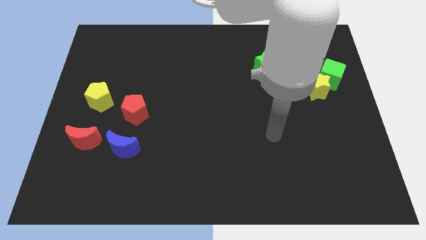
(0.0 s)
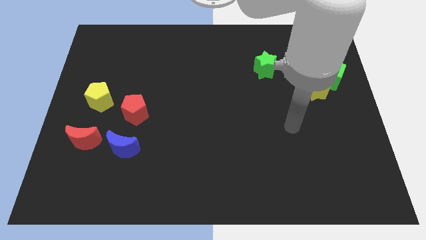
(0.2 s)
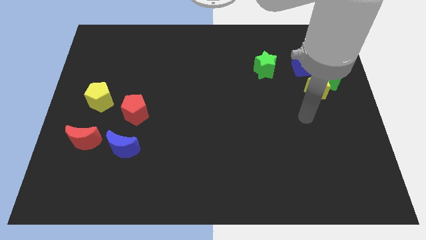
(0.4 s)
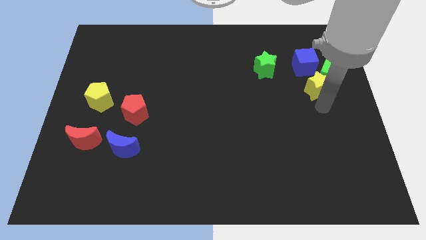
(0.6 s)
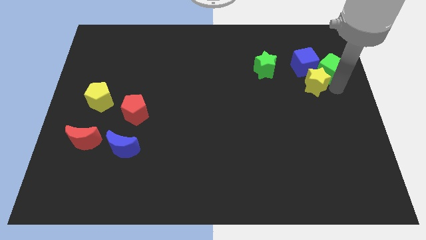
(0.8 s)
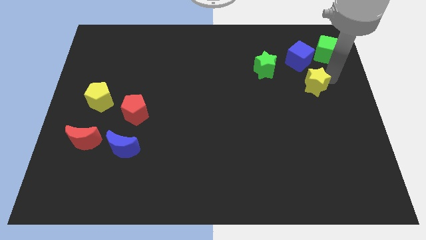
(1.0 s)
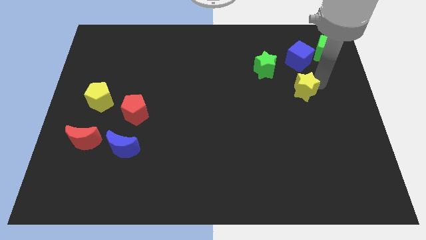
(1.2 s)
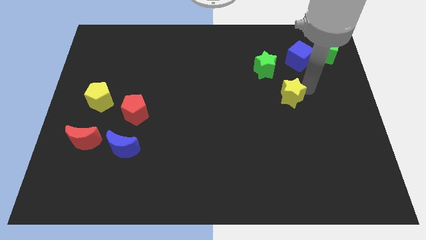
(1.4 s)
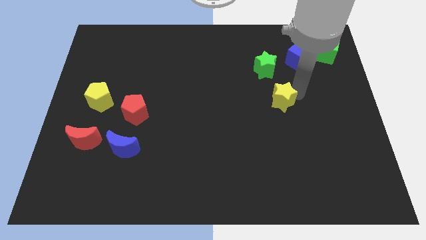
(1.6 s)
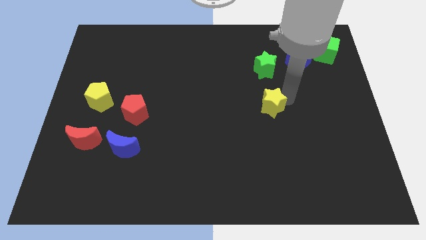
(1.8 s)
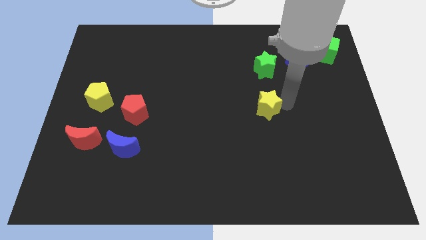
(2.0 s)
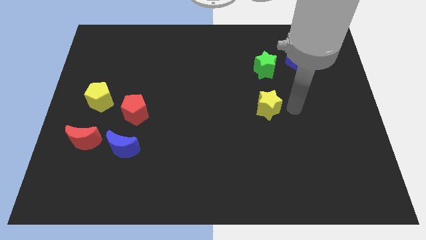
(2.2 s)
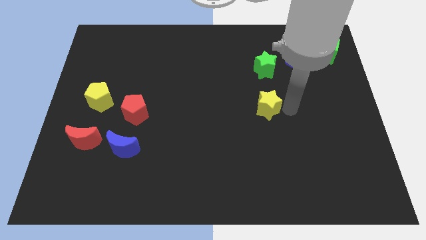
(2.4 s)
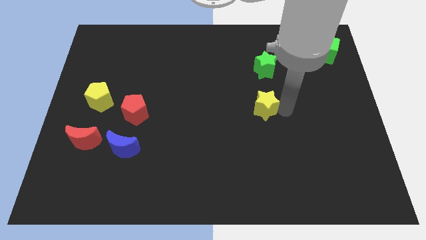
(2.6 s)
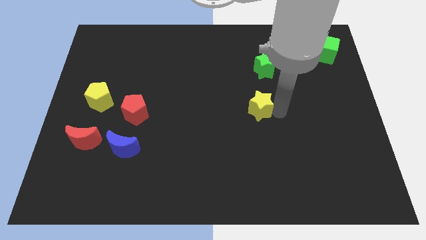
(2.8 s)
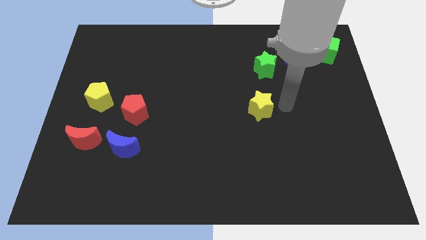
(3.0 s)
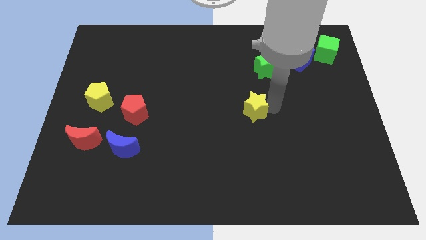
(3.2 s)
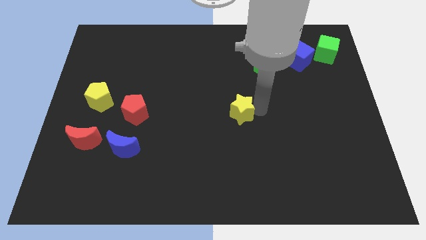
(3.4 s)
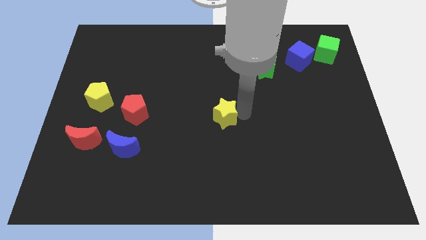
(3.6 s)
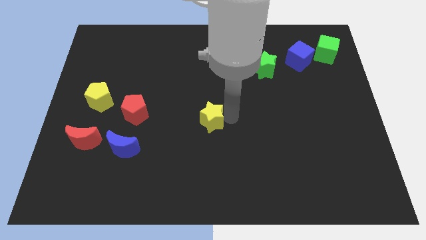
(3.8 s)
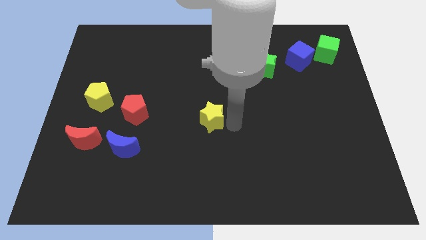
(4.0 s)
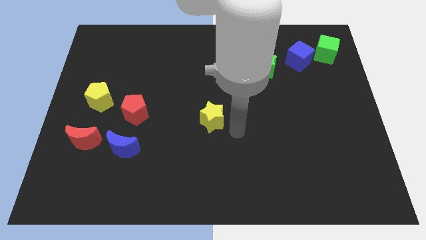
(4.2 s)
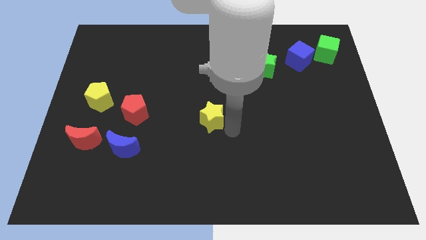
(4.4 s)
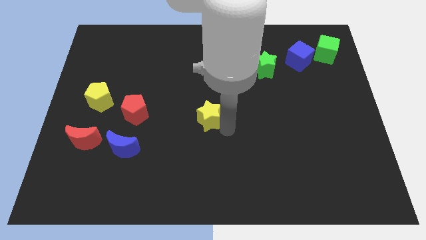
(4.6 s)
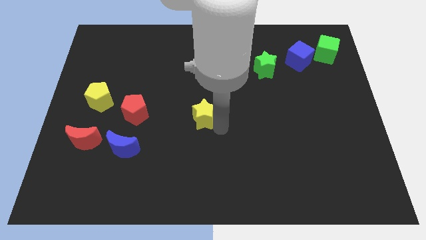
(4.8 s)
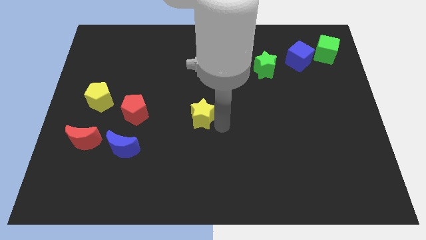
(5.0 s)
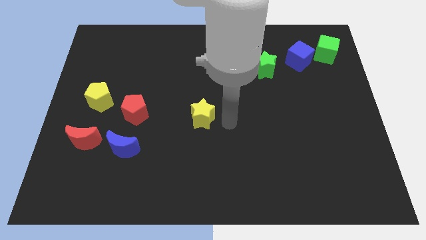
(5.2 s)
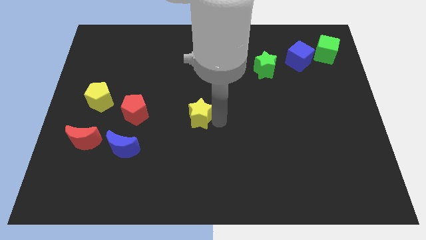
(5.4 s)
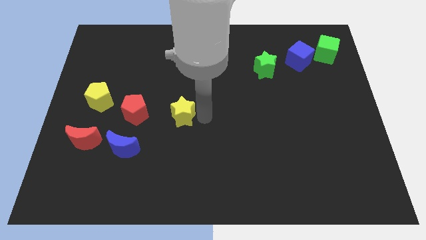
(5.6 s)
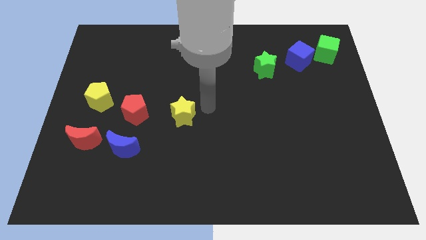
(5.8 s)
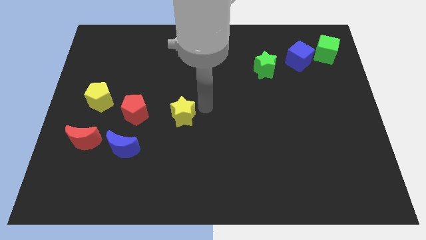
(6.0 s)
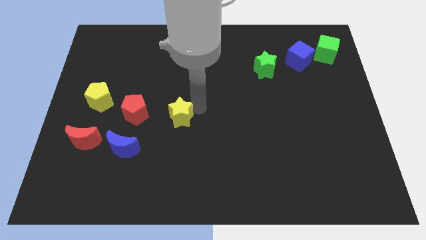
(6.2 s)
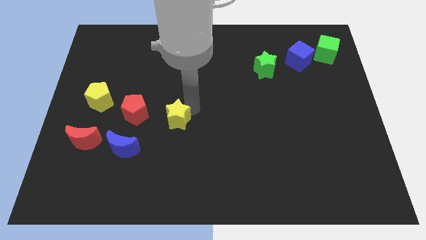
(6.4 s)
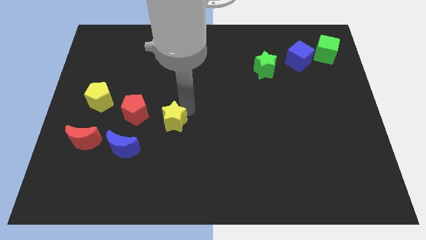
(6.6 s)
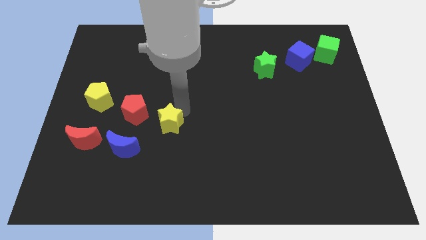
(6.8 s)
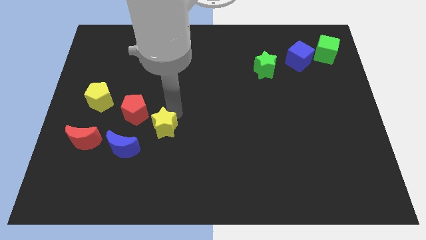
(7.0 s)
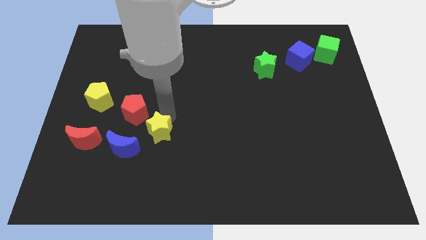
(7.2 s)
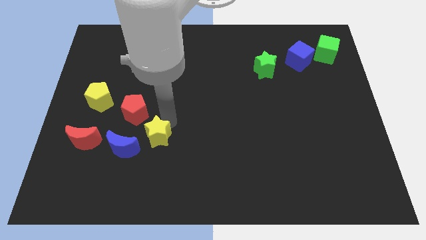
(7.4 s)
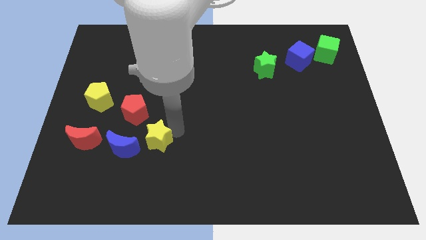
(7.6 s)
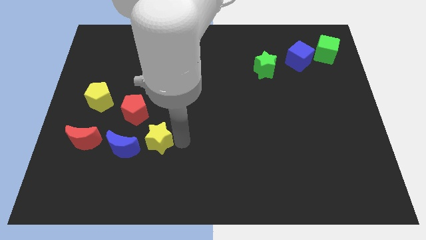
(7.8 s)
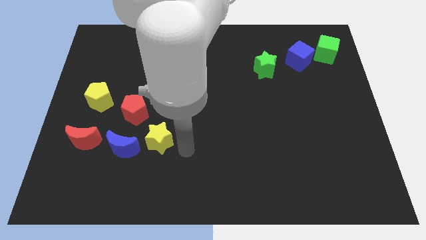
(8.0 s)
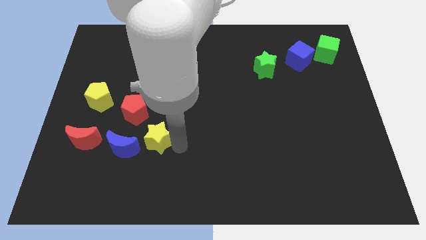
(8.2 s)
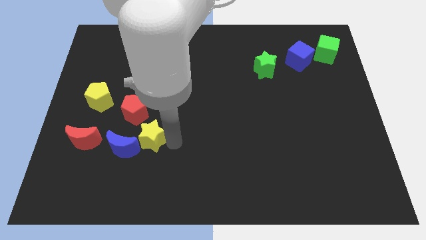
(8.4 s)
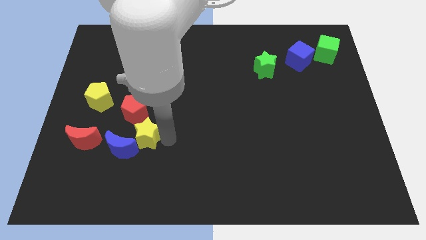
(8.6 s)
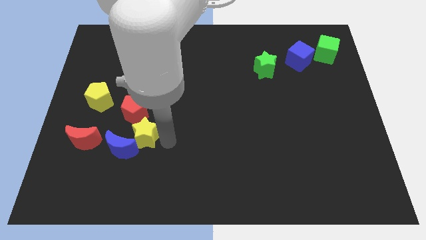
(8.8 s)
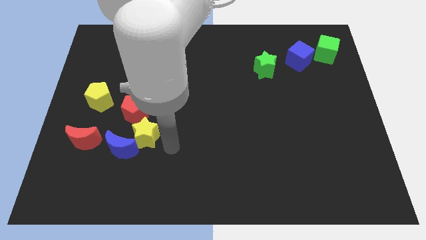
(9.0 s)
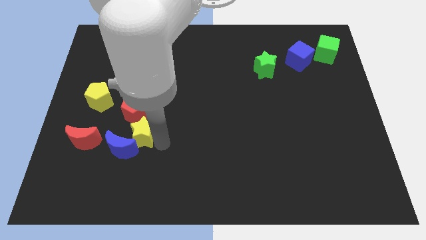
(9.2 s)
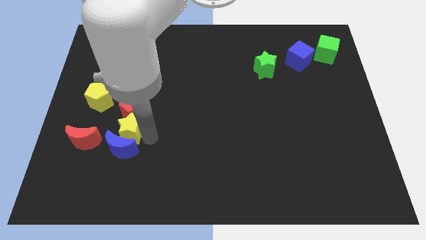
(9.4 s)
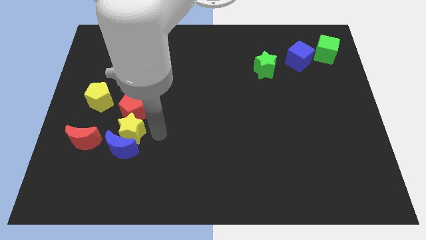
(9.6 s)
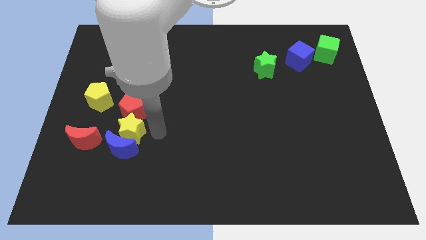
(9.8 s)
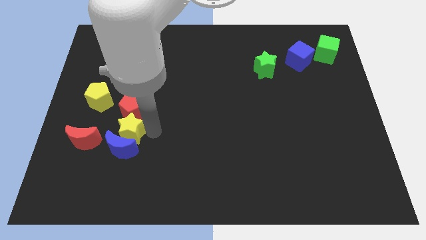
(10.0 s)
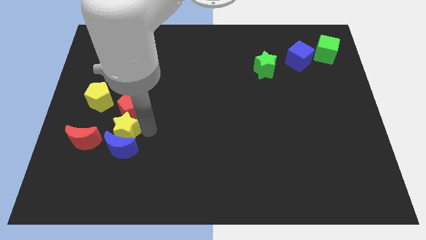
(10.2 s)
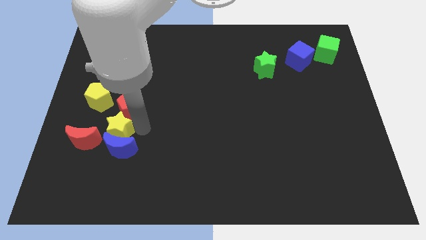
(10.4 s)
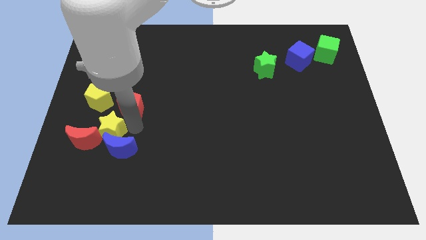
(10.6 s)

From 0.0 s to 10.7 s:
move the yellow star next to the red moon

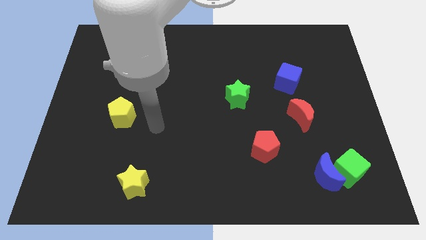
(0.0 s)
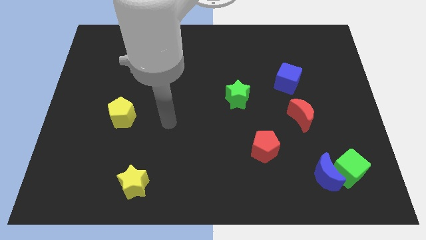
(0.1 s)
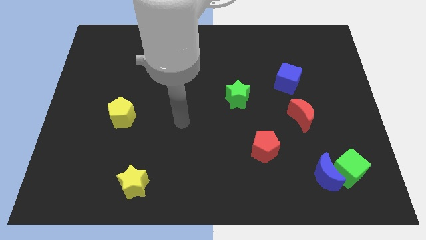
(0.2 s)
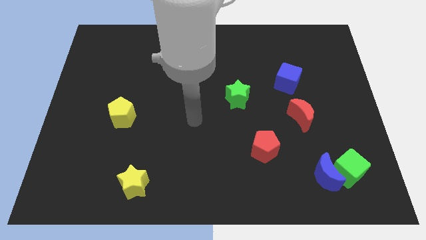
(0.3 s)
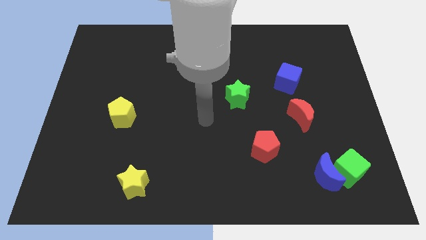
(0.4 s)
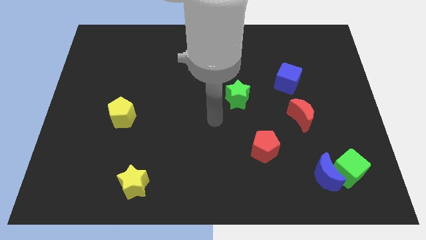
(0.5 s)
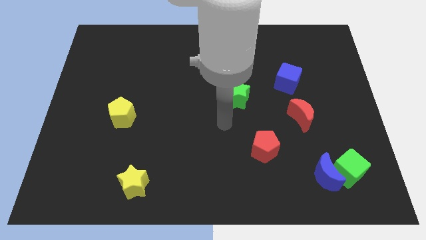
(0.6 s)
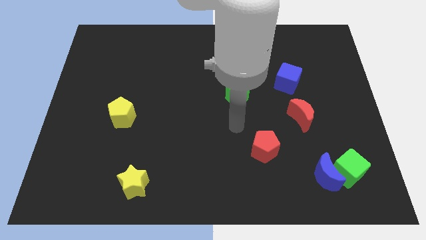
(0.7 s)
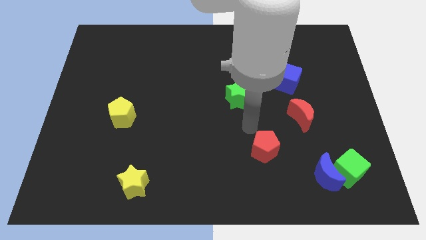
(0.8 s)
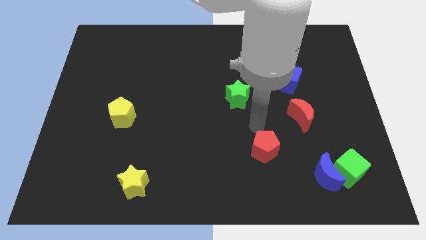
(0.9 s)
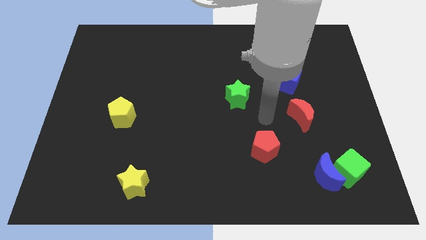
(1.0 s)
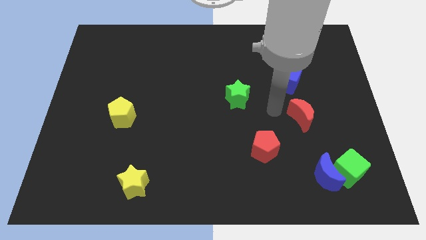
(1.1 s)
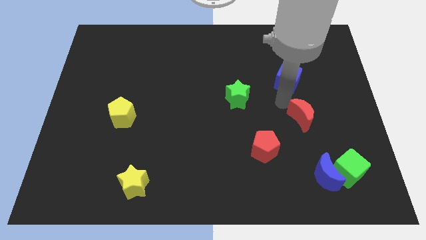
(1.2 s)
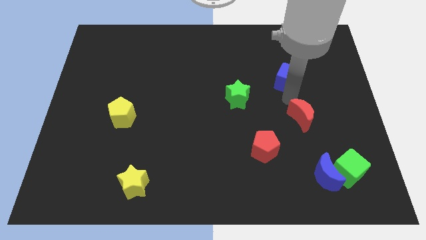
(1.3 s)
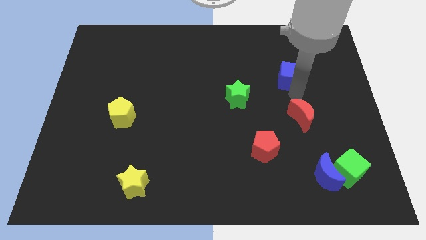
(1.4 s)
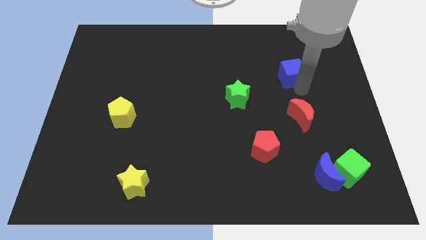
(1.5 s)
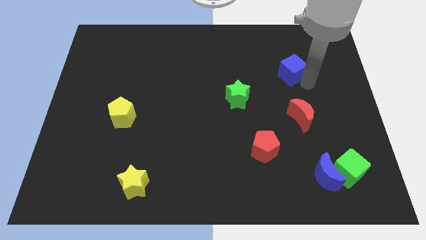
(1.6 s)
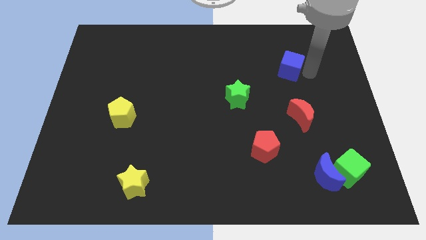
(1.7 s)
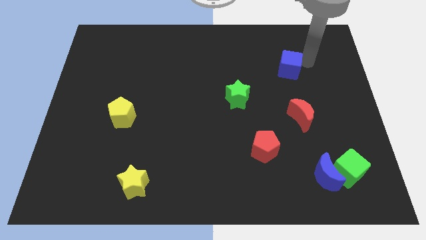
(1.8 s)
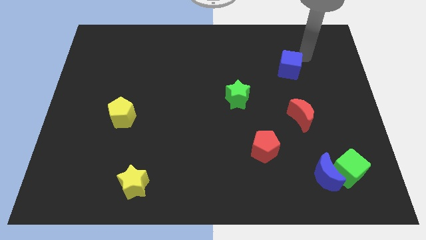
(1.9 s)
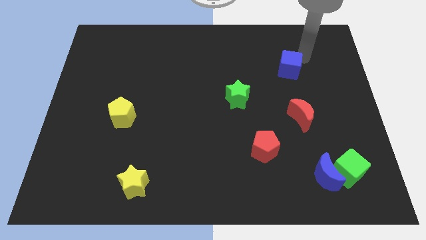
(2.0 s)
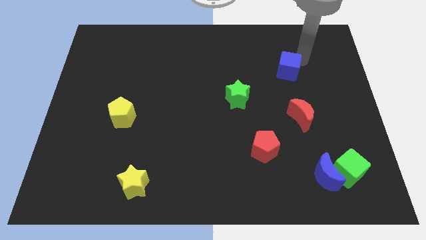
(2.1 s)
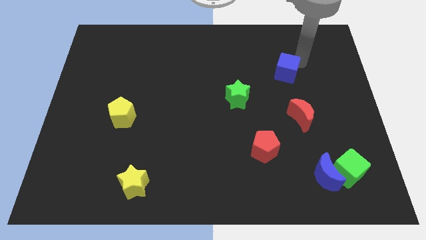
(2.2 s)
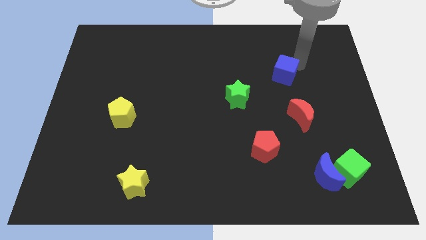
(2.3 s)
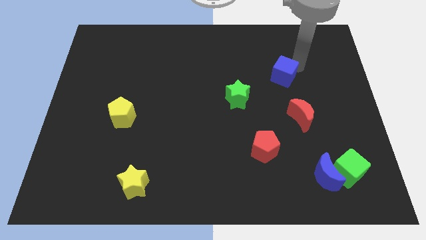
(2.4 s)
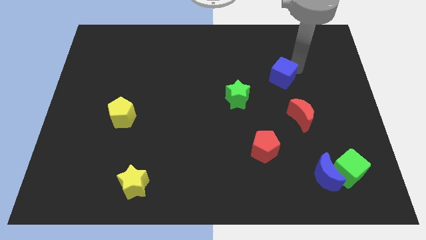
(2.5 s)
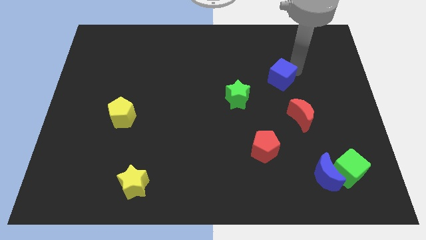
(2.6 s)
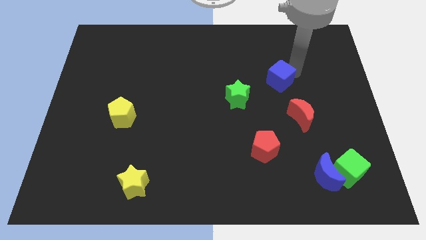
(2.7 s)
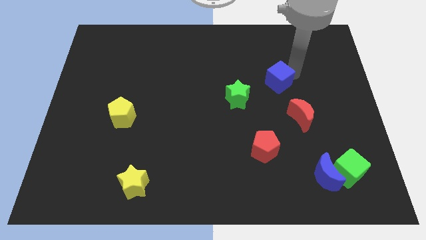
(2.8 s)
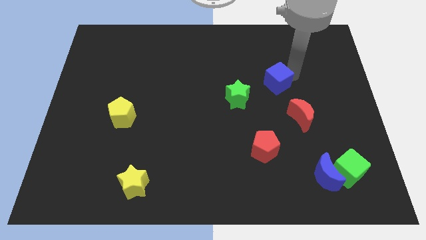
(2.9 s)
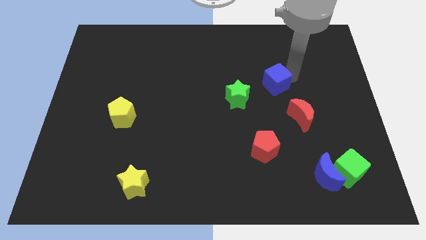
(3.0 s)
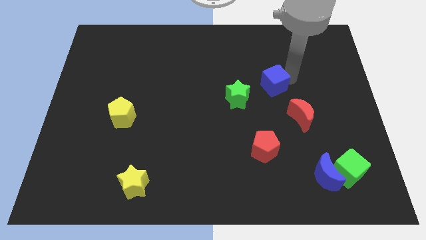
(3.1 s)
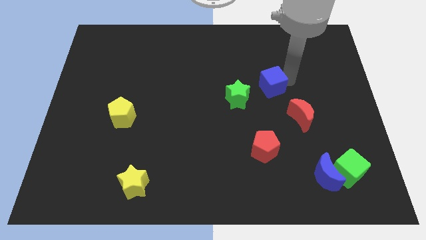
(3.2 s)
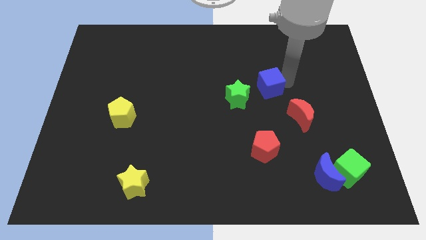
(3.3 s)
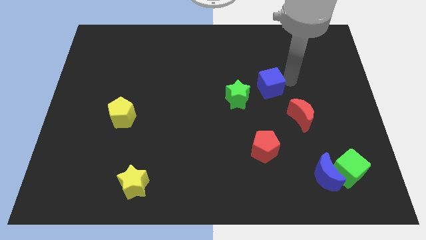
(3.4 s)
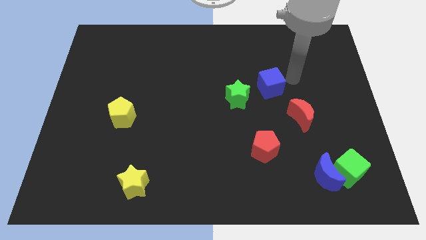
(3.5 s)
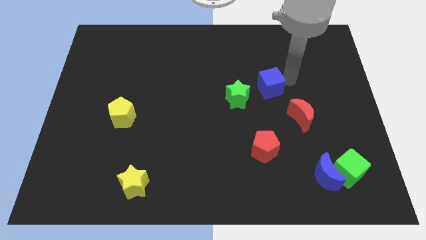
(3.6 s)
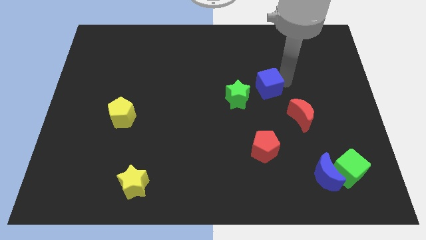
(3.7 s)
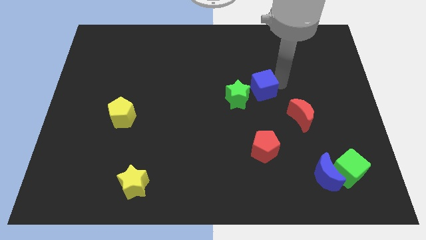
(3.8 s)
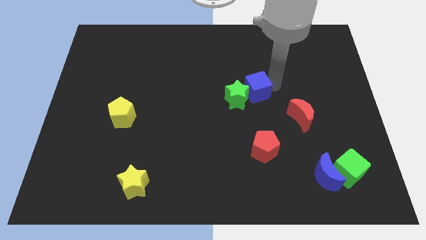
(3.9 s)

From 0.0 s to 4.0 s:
slide the blue cube towards the green star
